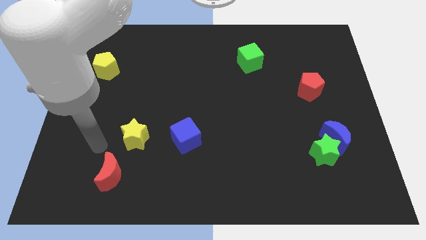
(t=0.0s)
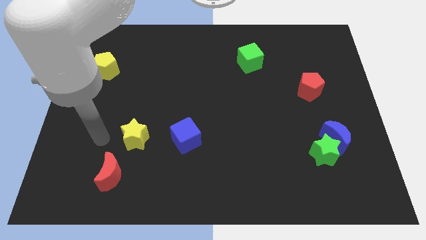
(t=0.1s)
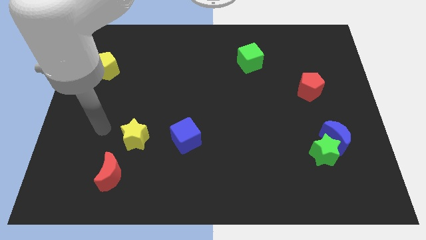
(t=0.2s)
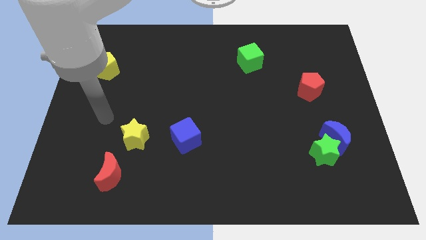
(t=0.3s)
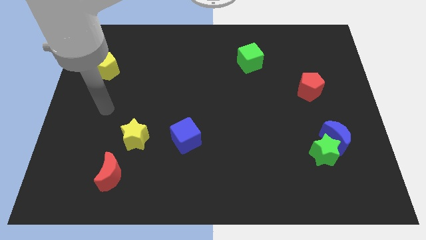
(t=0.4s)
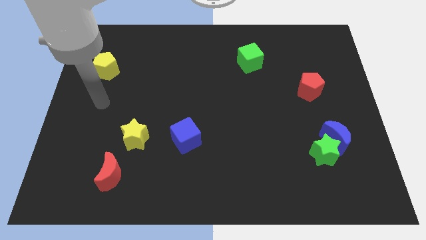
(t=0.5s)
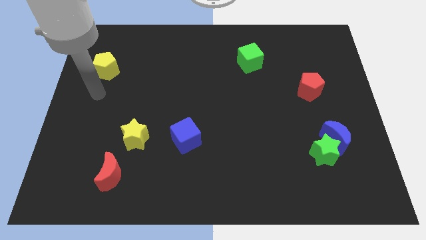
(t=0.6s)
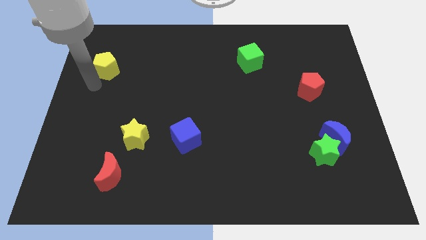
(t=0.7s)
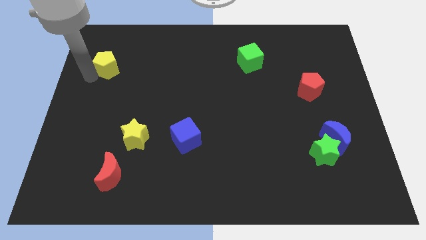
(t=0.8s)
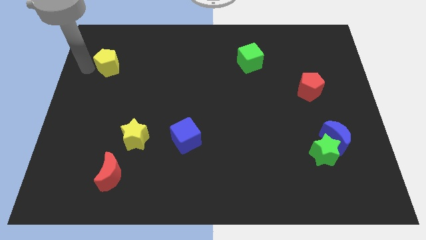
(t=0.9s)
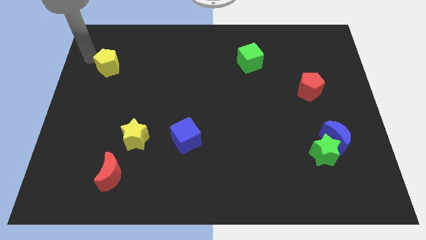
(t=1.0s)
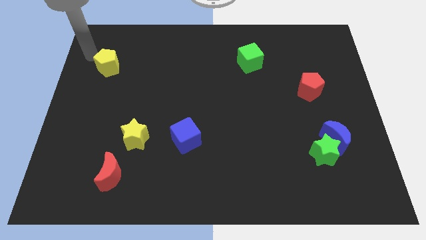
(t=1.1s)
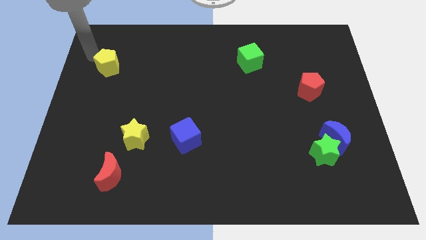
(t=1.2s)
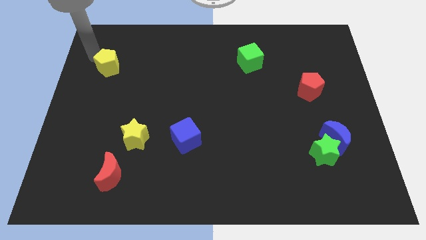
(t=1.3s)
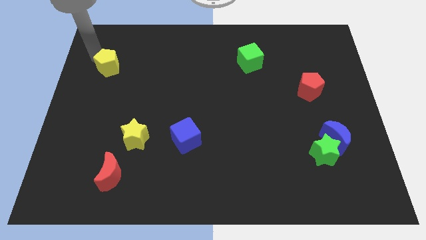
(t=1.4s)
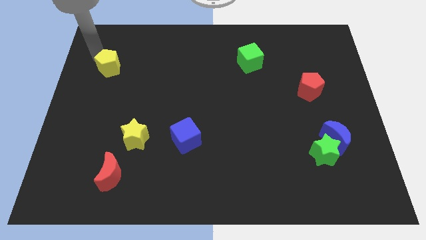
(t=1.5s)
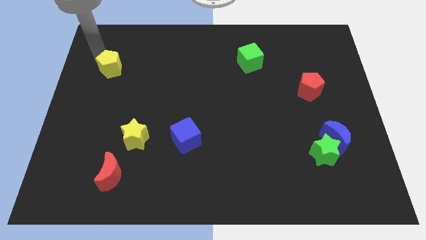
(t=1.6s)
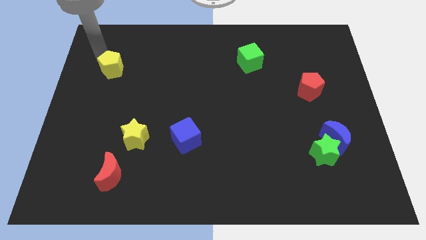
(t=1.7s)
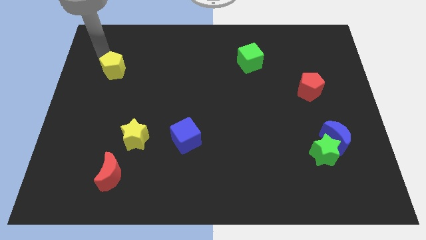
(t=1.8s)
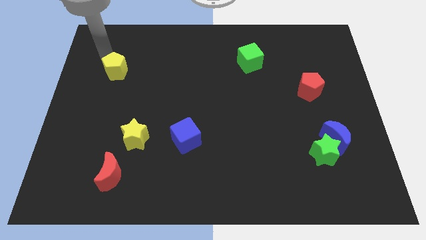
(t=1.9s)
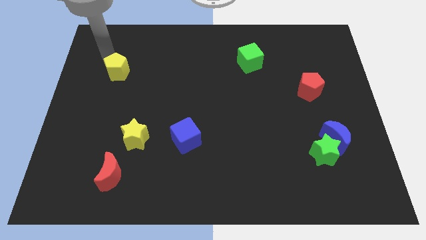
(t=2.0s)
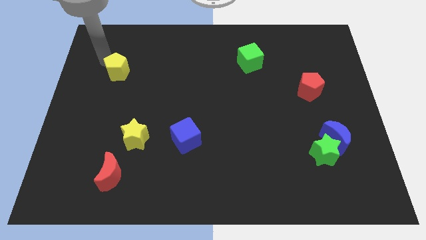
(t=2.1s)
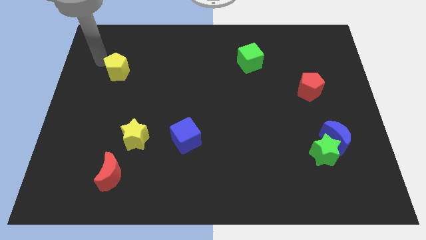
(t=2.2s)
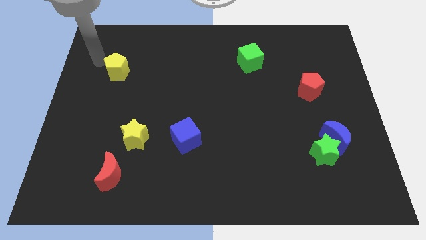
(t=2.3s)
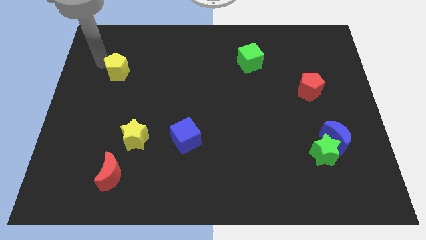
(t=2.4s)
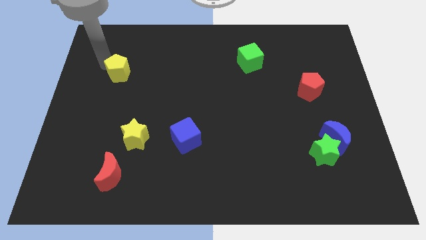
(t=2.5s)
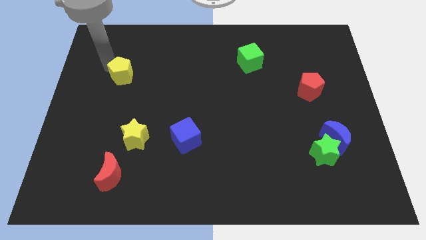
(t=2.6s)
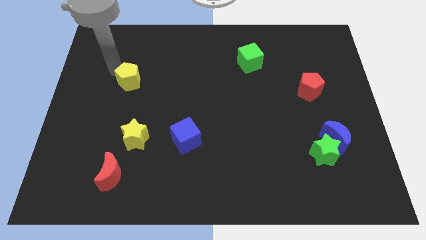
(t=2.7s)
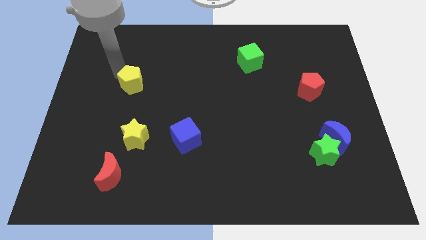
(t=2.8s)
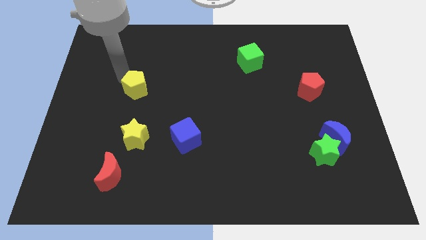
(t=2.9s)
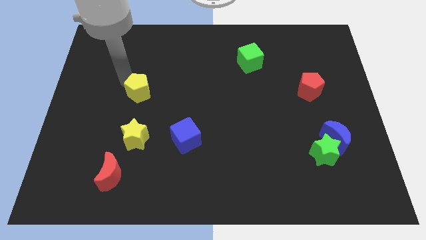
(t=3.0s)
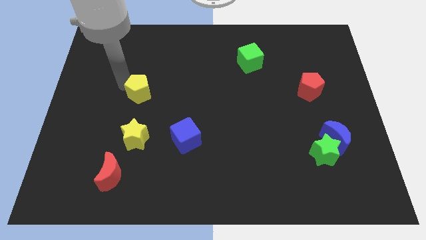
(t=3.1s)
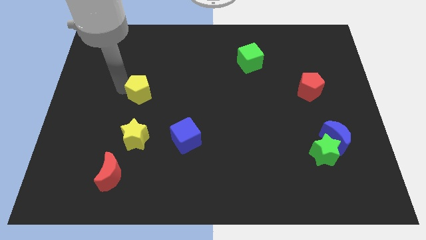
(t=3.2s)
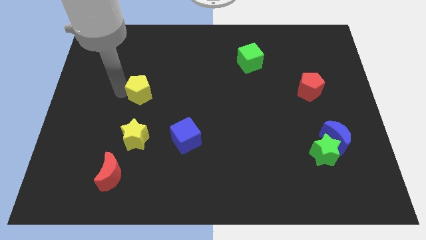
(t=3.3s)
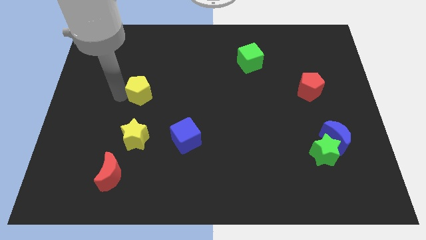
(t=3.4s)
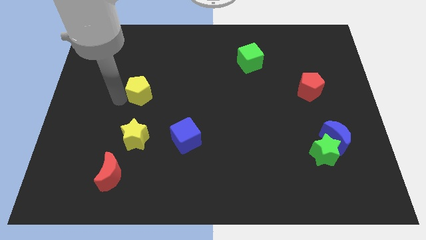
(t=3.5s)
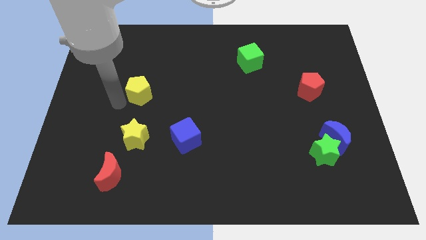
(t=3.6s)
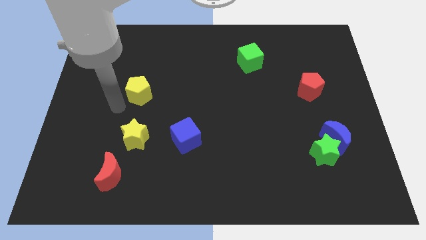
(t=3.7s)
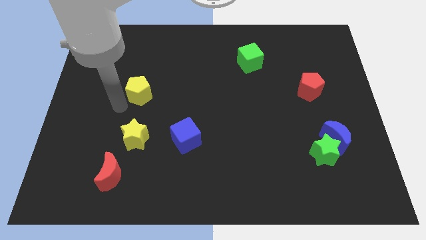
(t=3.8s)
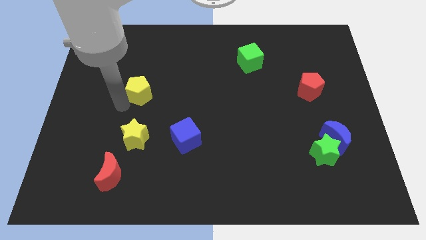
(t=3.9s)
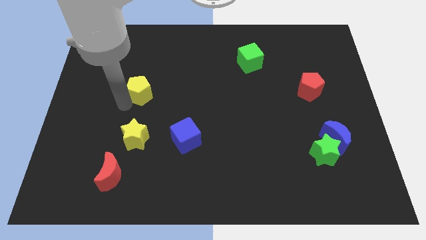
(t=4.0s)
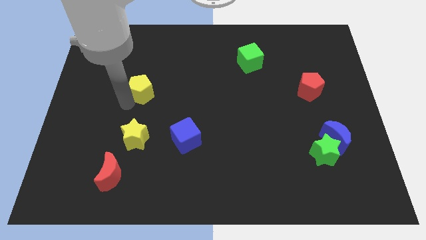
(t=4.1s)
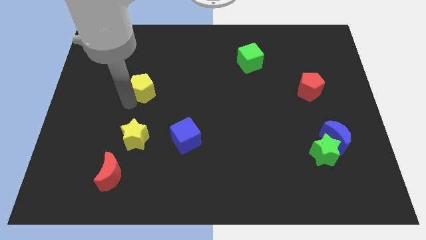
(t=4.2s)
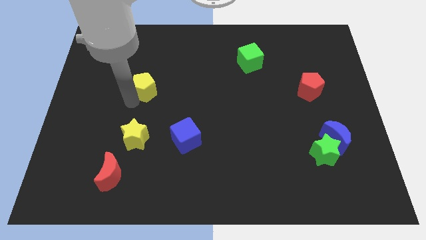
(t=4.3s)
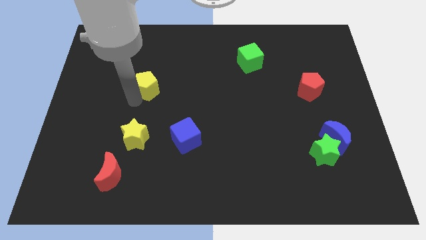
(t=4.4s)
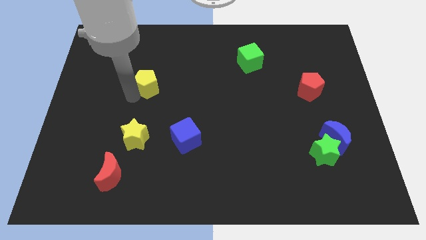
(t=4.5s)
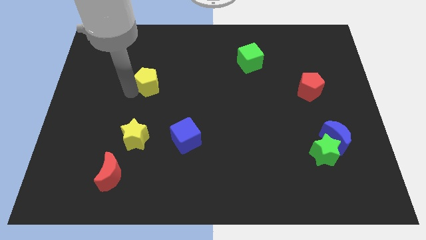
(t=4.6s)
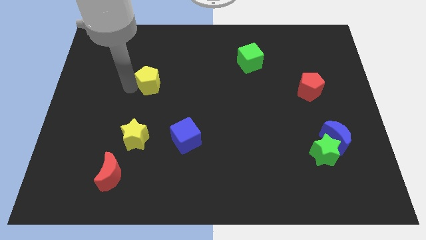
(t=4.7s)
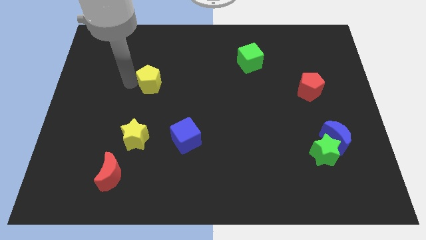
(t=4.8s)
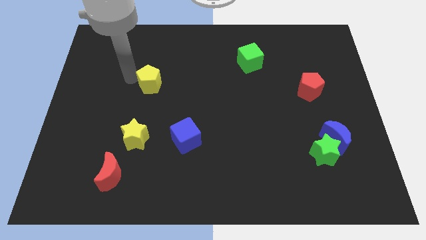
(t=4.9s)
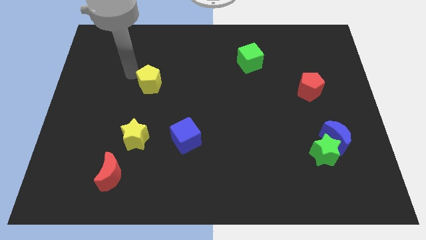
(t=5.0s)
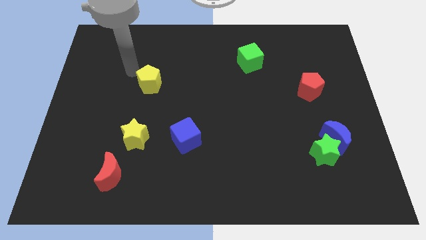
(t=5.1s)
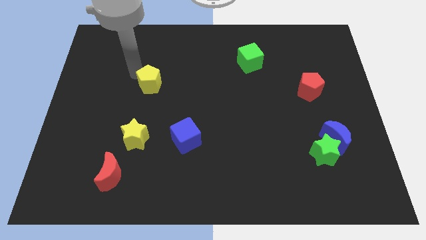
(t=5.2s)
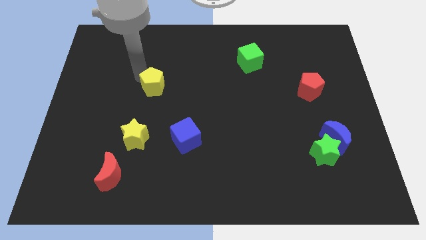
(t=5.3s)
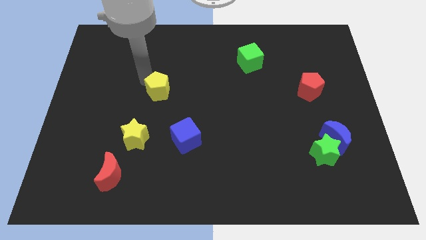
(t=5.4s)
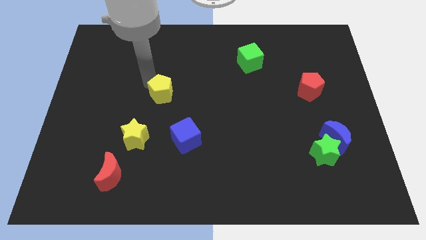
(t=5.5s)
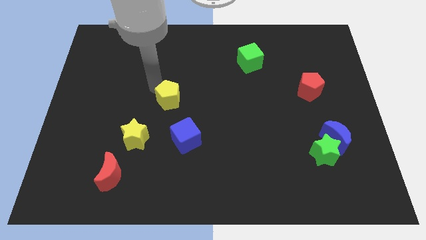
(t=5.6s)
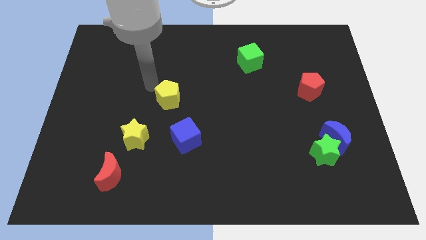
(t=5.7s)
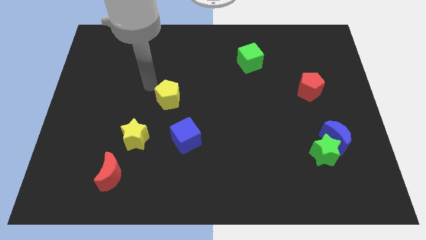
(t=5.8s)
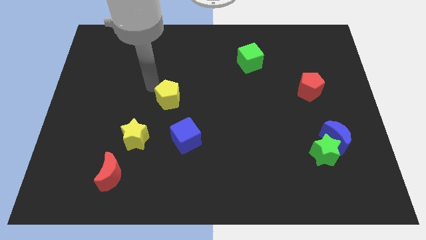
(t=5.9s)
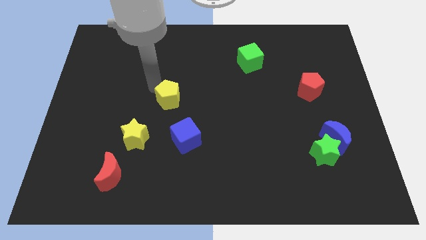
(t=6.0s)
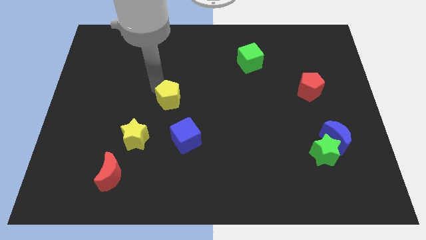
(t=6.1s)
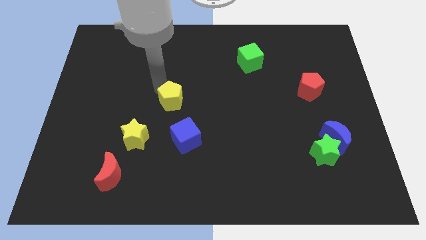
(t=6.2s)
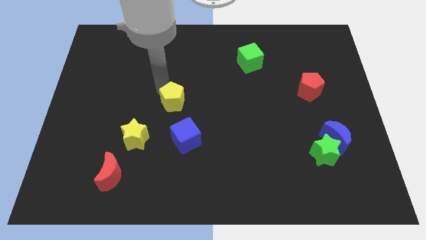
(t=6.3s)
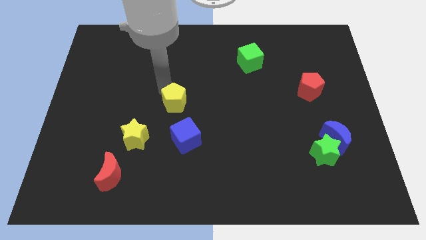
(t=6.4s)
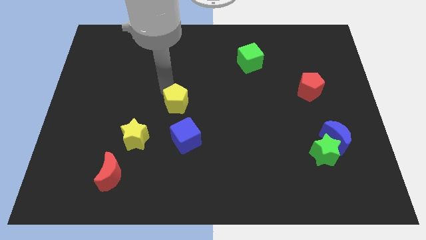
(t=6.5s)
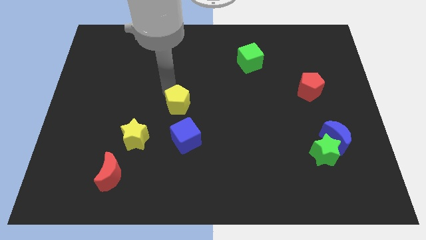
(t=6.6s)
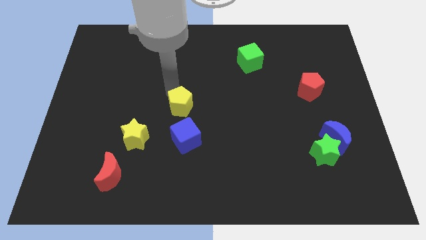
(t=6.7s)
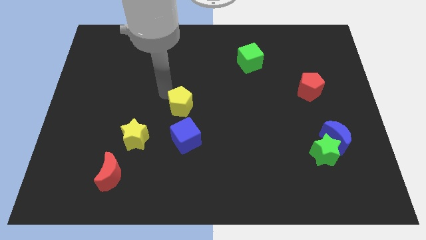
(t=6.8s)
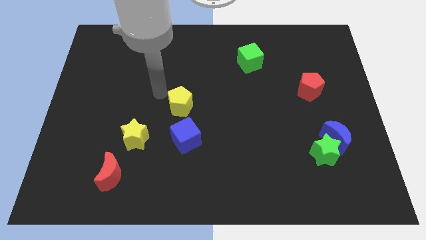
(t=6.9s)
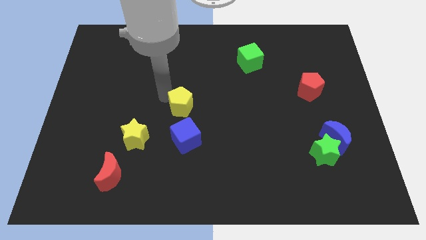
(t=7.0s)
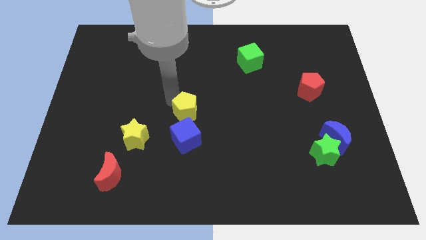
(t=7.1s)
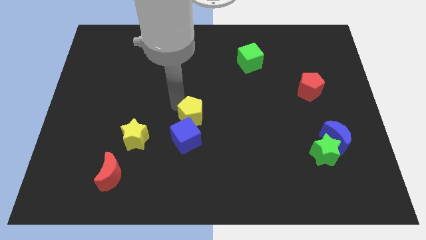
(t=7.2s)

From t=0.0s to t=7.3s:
push the yellow pentagon diagonally up and to the right of the blue cube

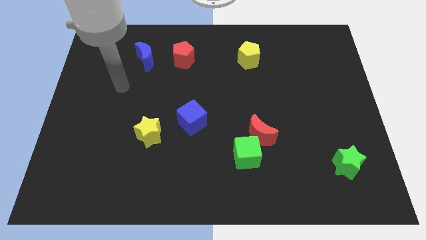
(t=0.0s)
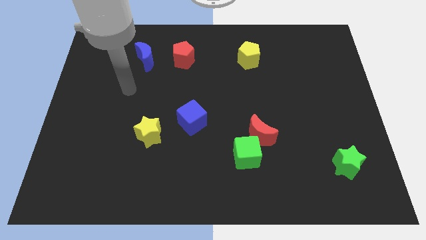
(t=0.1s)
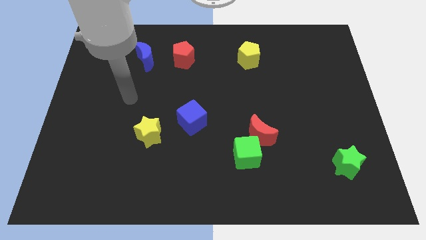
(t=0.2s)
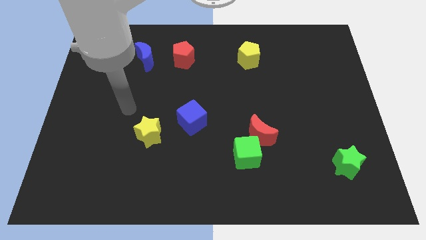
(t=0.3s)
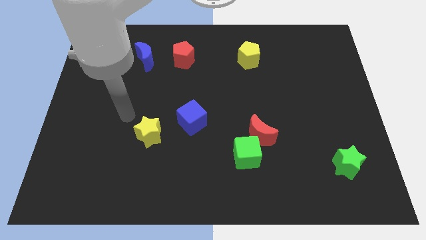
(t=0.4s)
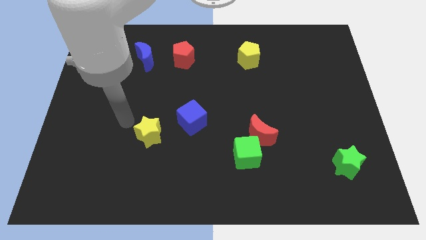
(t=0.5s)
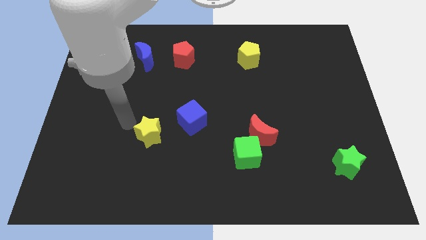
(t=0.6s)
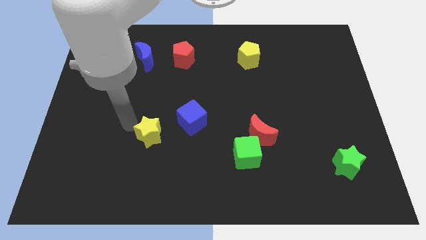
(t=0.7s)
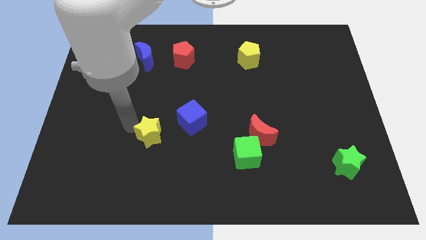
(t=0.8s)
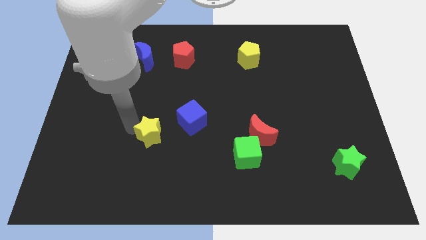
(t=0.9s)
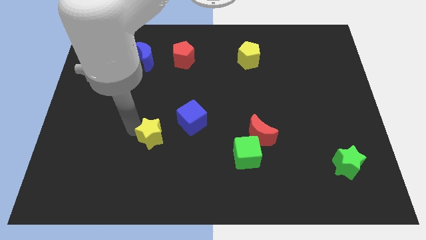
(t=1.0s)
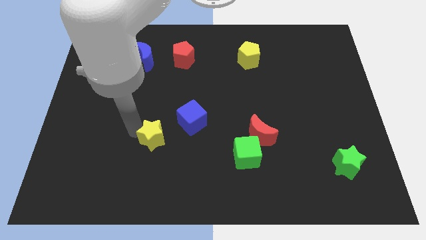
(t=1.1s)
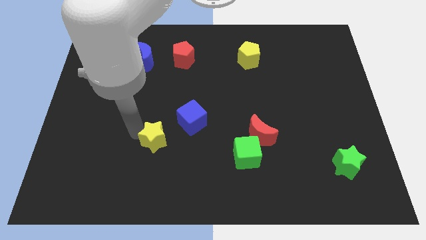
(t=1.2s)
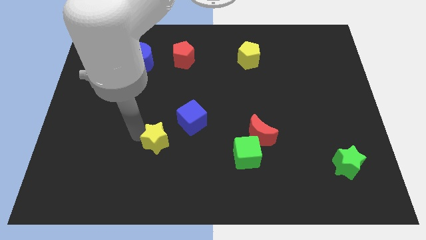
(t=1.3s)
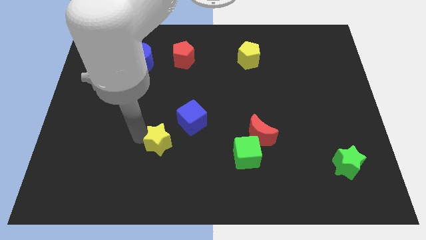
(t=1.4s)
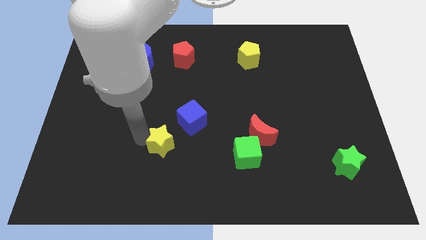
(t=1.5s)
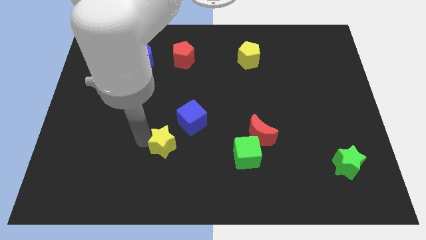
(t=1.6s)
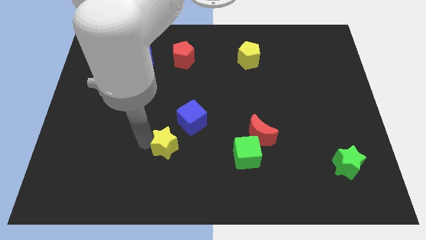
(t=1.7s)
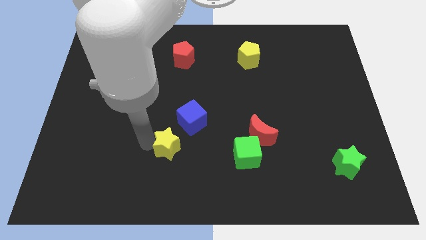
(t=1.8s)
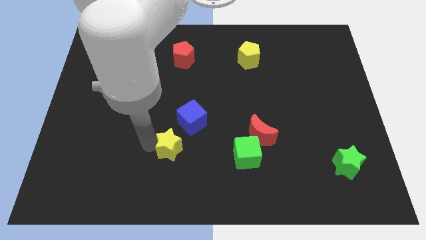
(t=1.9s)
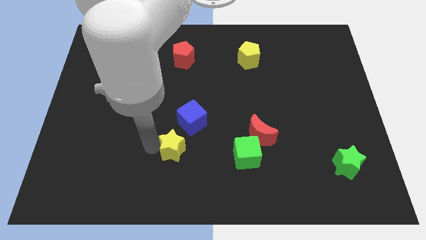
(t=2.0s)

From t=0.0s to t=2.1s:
put the yellow star to the left of the green cube
